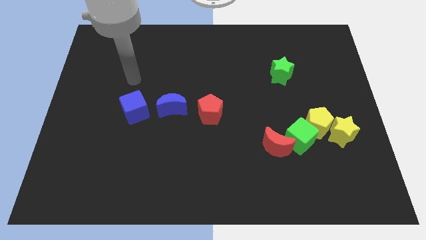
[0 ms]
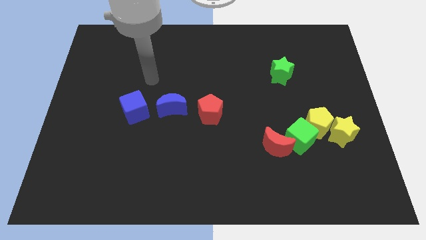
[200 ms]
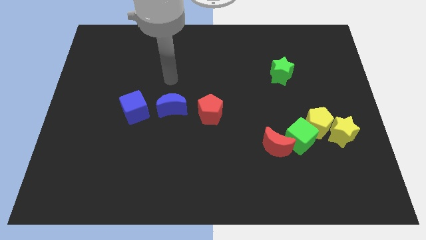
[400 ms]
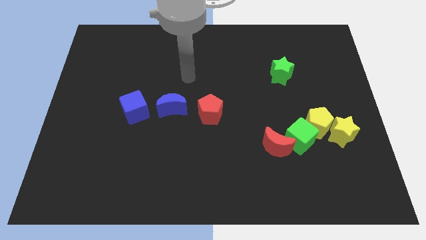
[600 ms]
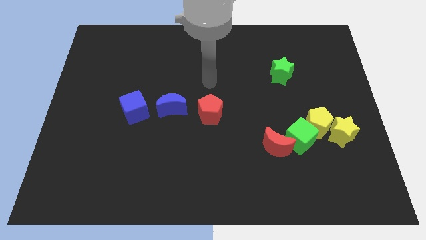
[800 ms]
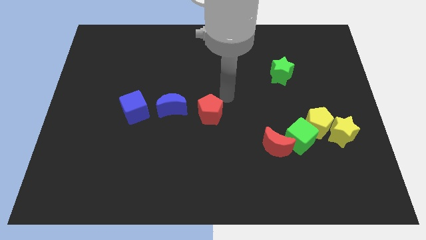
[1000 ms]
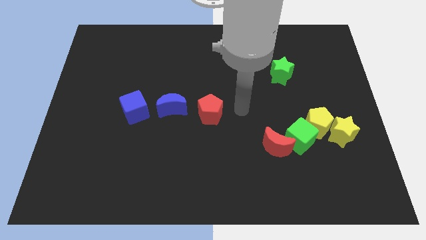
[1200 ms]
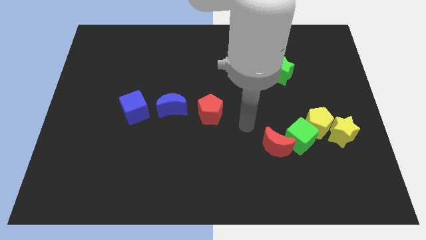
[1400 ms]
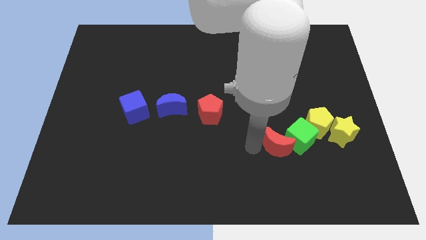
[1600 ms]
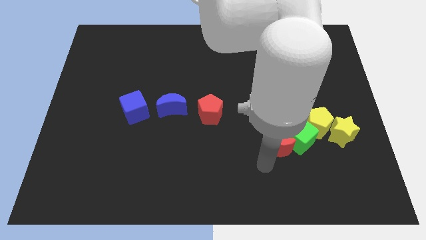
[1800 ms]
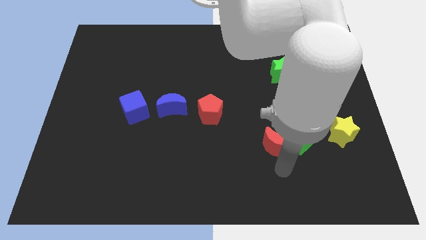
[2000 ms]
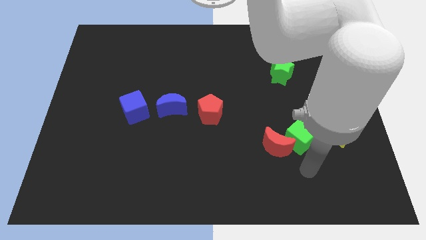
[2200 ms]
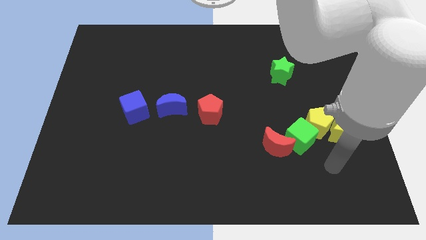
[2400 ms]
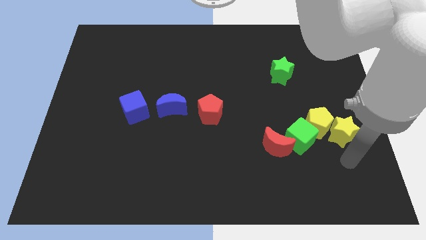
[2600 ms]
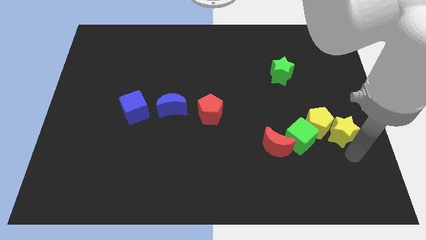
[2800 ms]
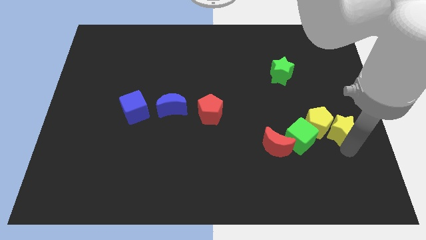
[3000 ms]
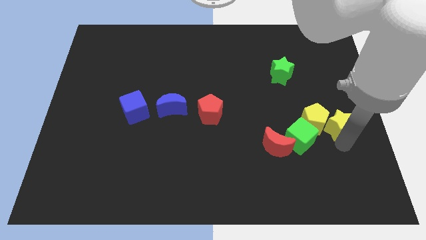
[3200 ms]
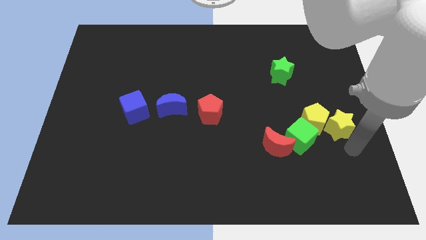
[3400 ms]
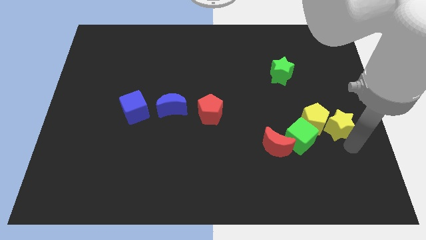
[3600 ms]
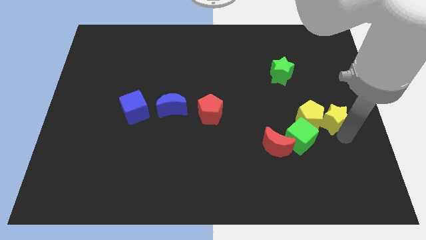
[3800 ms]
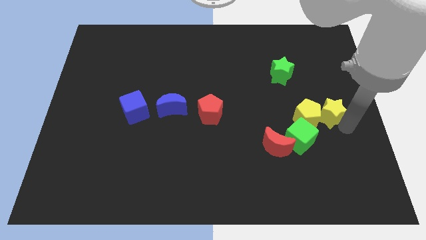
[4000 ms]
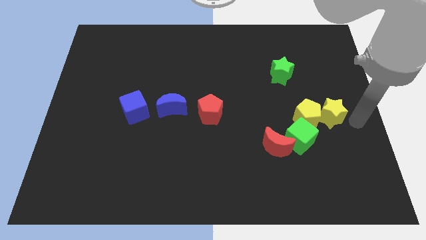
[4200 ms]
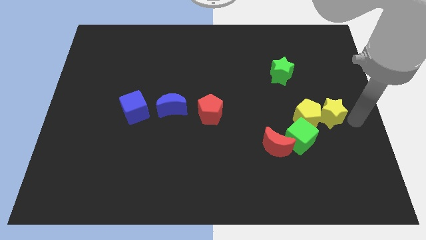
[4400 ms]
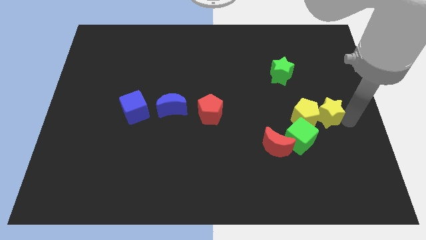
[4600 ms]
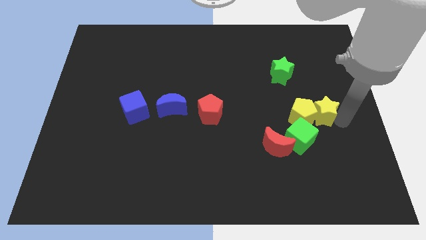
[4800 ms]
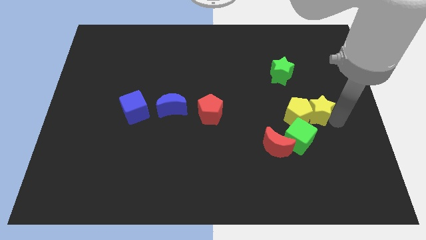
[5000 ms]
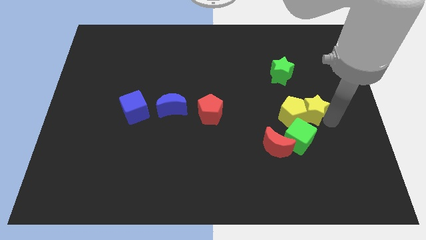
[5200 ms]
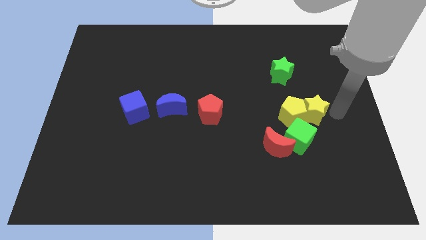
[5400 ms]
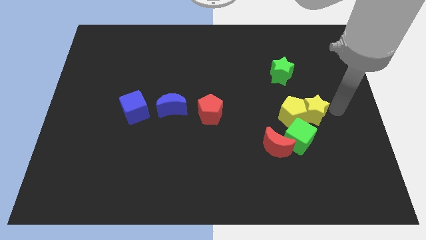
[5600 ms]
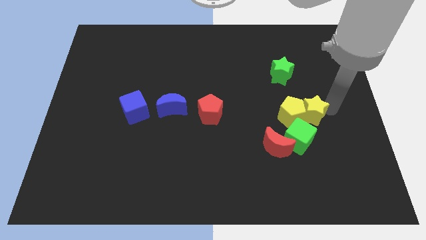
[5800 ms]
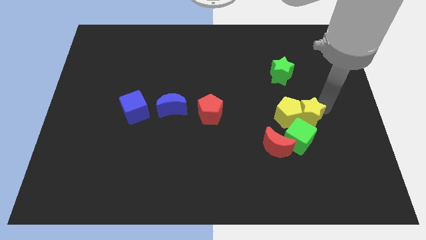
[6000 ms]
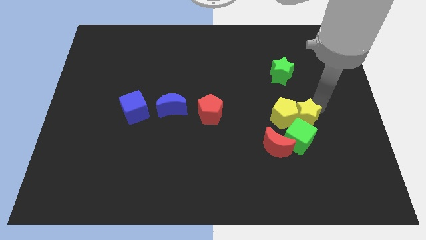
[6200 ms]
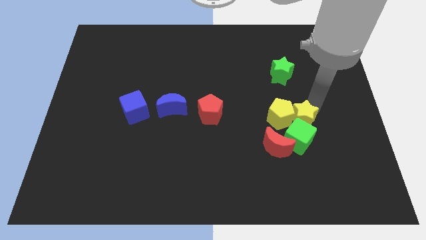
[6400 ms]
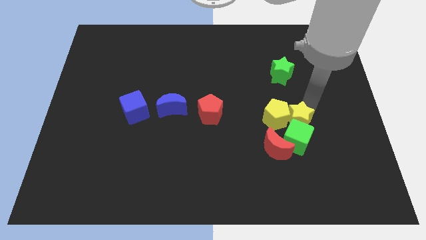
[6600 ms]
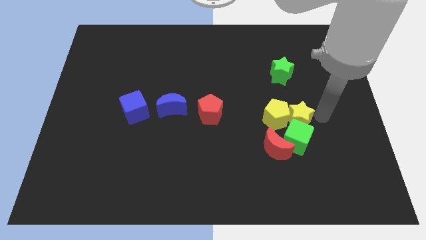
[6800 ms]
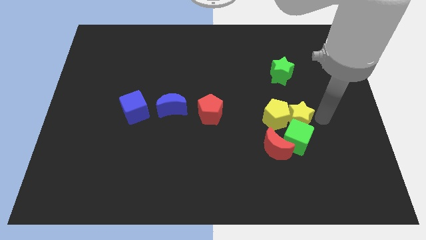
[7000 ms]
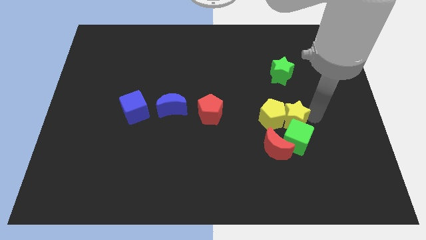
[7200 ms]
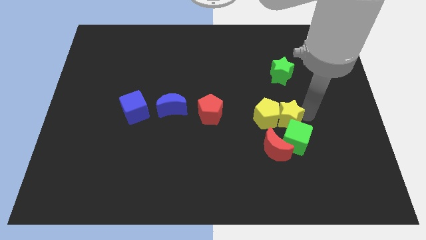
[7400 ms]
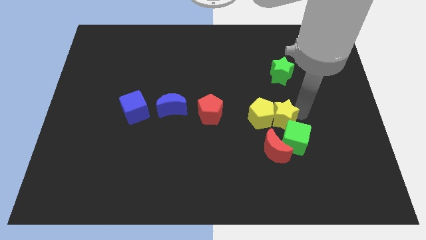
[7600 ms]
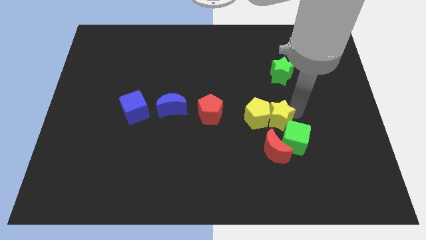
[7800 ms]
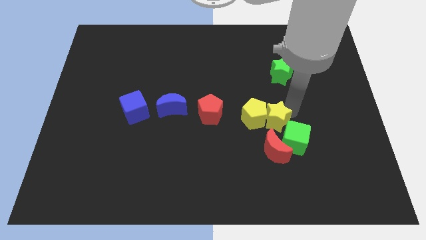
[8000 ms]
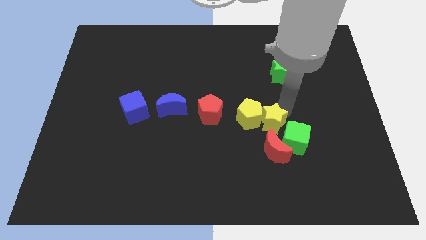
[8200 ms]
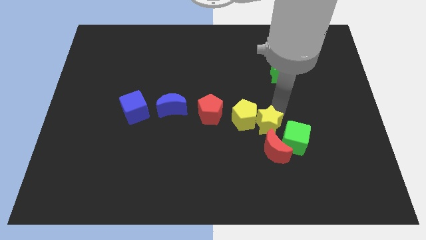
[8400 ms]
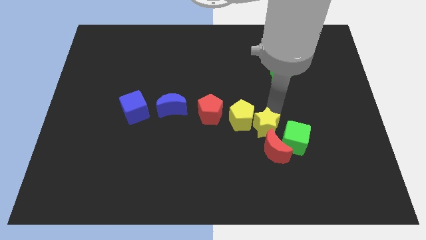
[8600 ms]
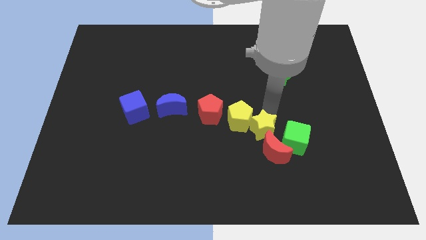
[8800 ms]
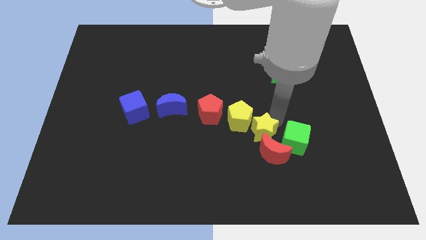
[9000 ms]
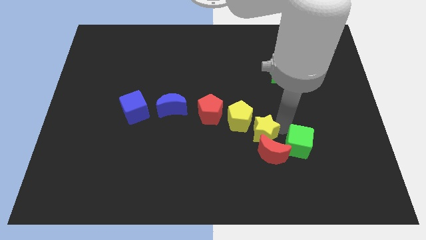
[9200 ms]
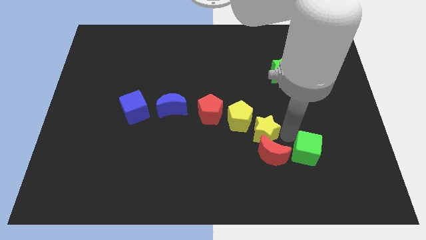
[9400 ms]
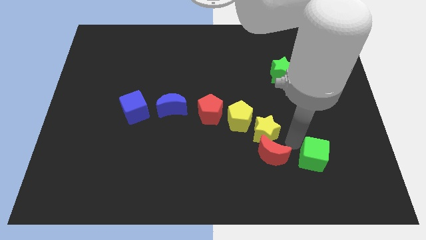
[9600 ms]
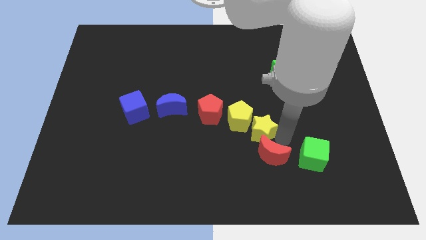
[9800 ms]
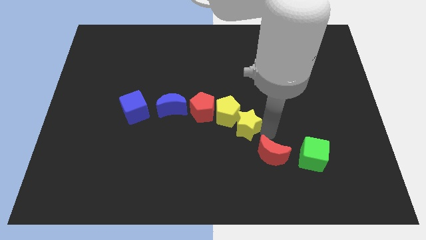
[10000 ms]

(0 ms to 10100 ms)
slide the yellow star to the left

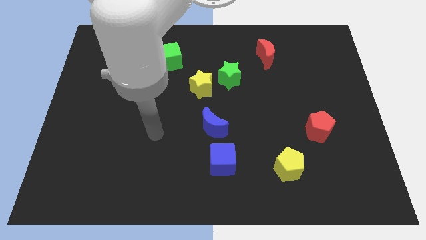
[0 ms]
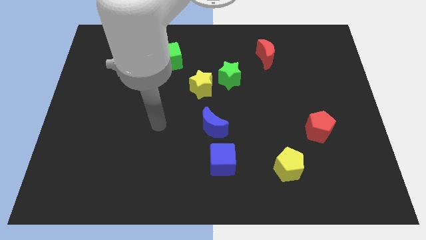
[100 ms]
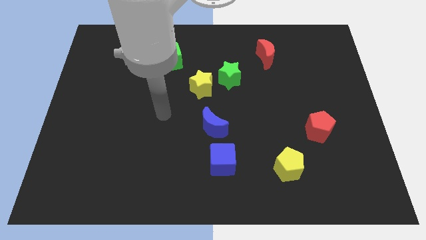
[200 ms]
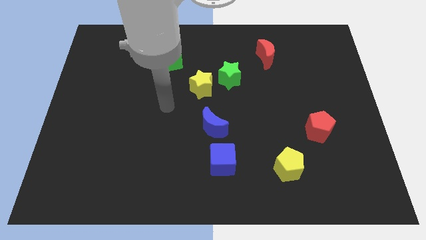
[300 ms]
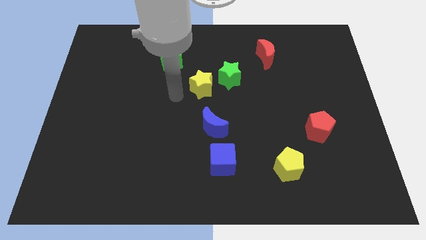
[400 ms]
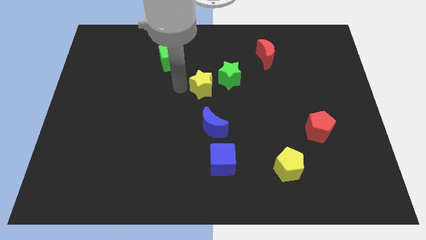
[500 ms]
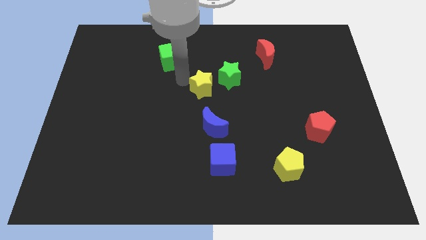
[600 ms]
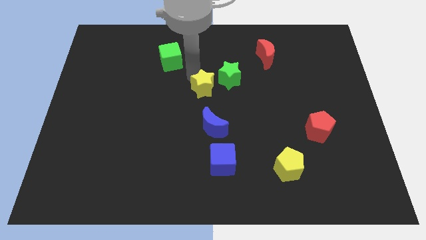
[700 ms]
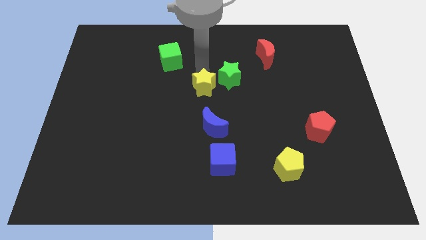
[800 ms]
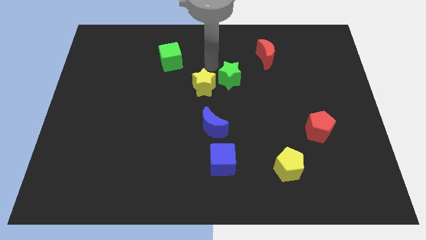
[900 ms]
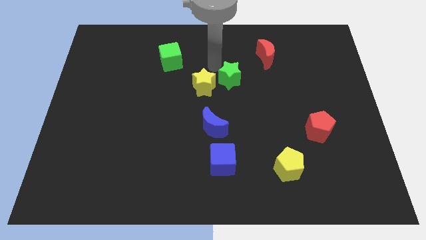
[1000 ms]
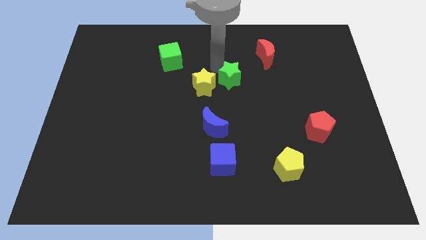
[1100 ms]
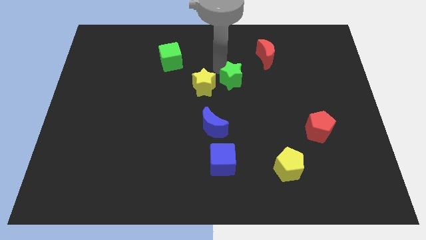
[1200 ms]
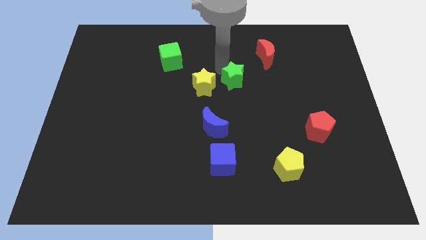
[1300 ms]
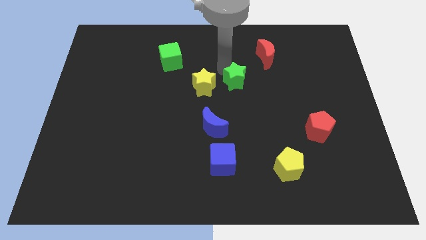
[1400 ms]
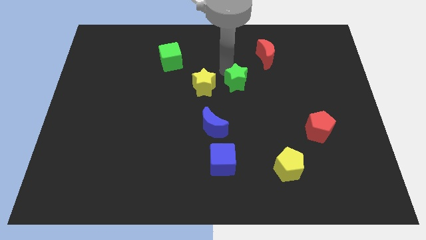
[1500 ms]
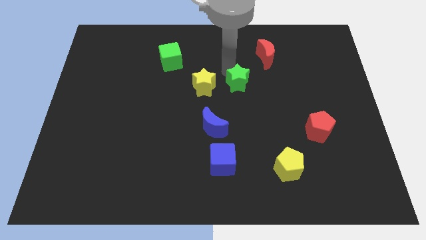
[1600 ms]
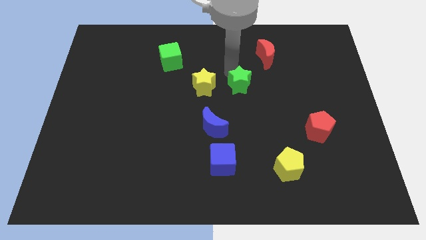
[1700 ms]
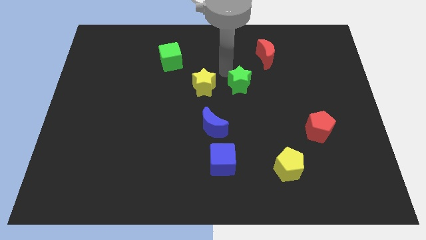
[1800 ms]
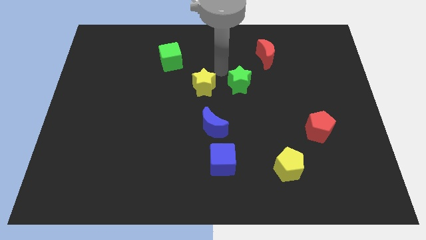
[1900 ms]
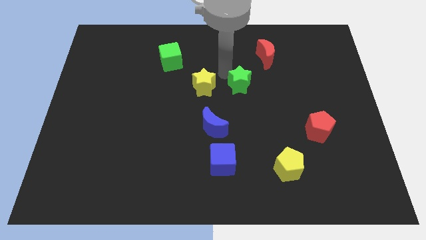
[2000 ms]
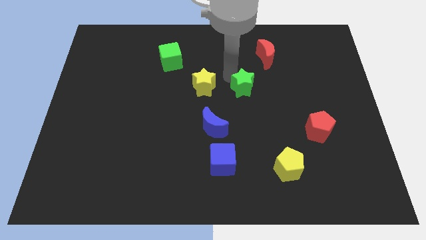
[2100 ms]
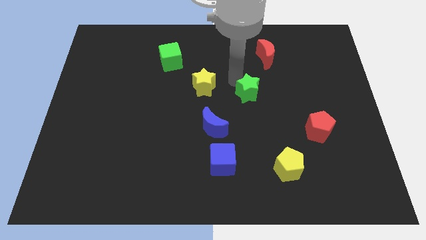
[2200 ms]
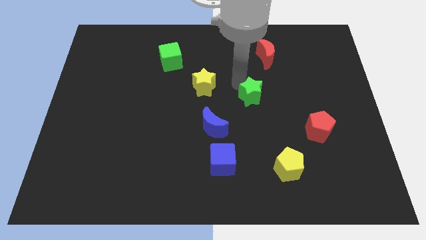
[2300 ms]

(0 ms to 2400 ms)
slide the green star a little bit diagonally down and to the right

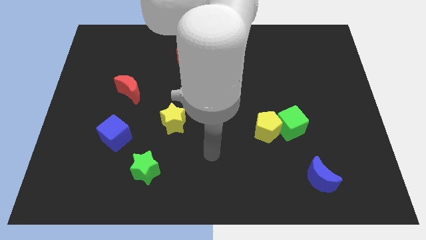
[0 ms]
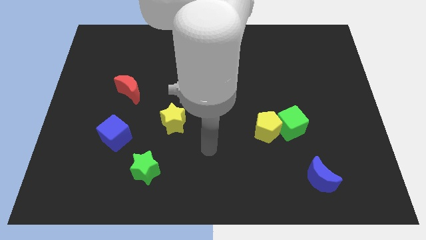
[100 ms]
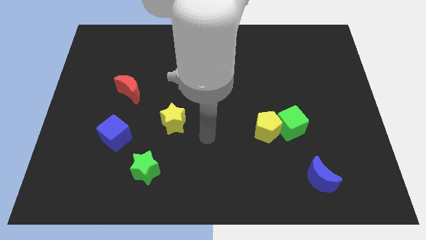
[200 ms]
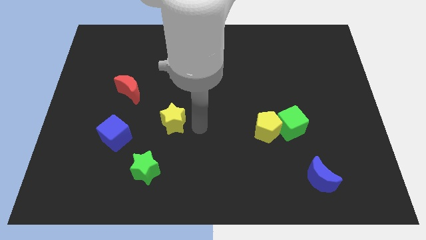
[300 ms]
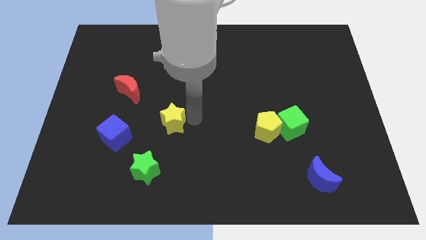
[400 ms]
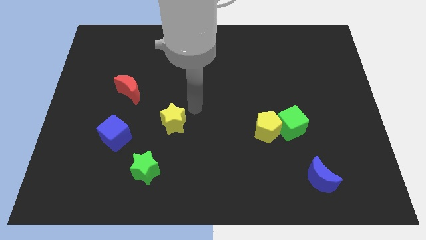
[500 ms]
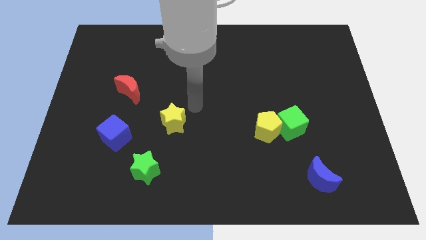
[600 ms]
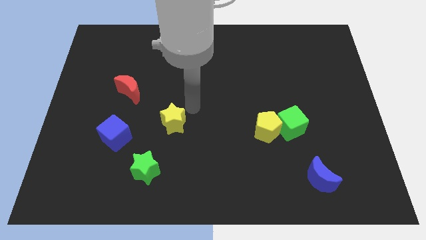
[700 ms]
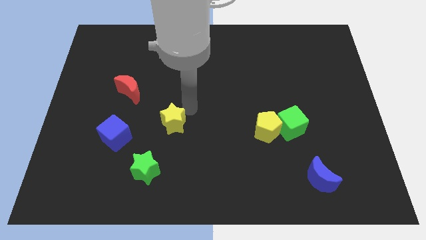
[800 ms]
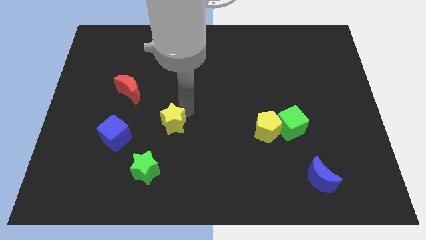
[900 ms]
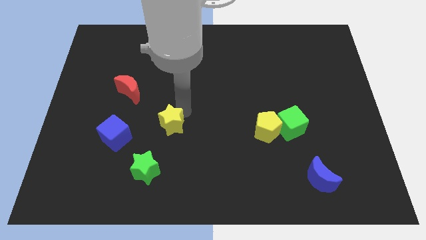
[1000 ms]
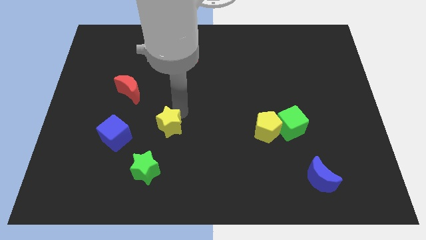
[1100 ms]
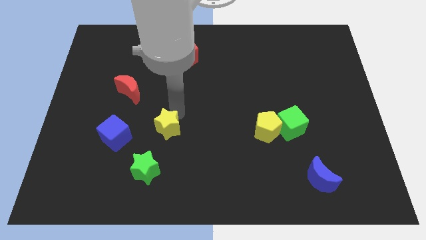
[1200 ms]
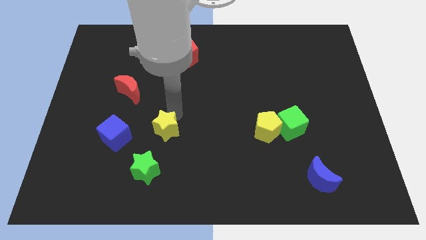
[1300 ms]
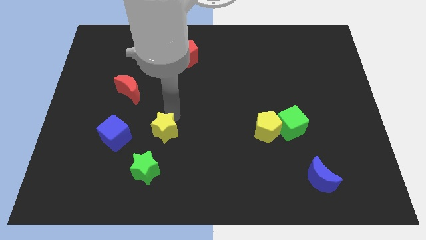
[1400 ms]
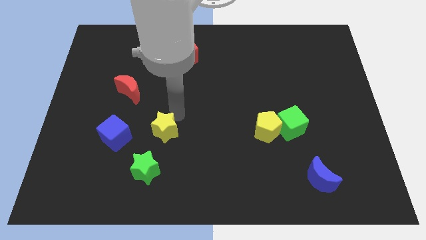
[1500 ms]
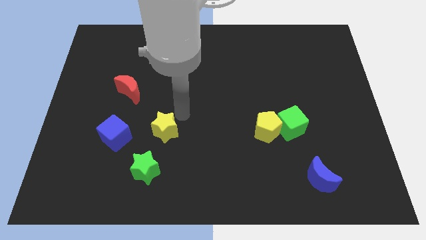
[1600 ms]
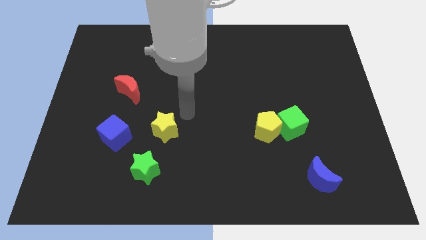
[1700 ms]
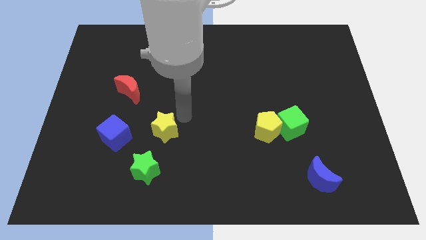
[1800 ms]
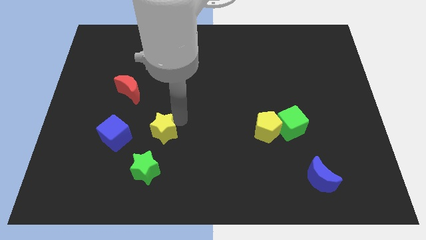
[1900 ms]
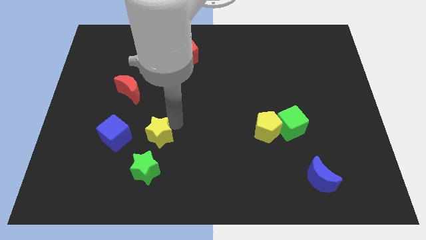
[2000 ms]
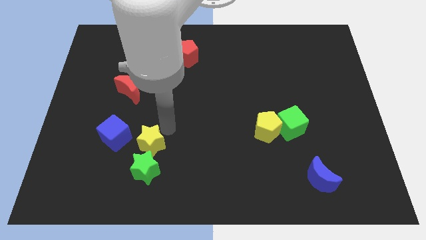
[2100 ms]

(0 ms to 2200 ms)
slightly slide the yellow star down and to the left
